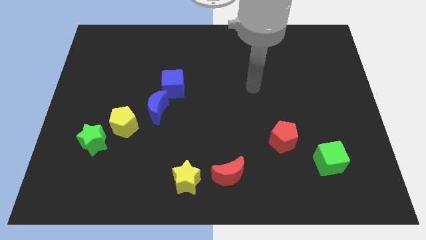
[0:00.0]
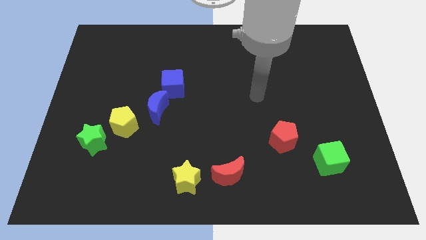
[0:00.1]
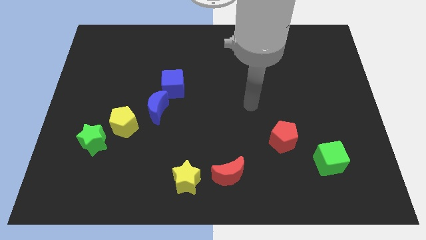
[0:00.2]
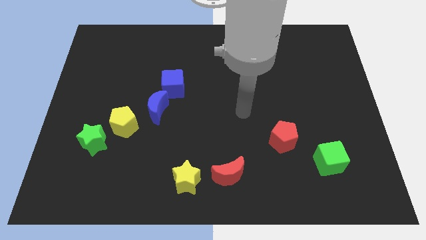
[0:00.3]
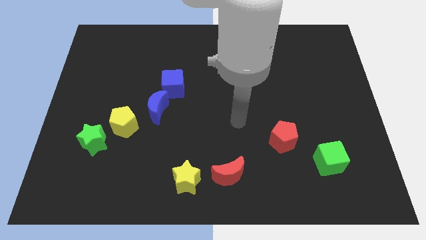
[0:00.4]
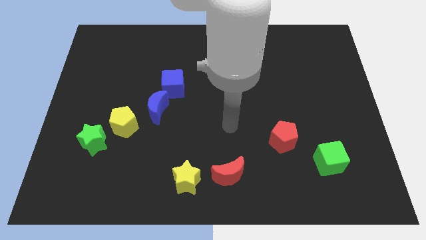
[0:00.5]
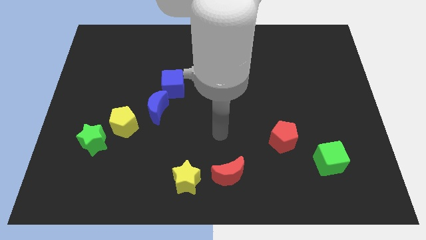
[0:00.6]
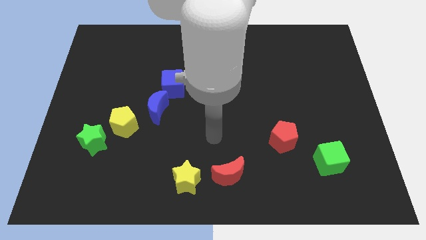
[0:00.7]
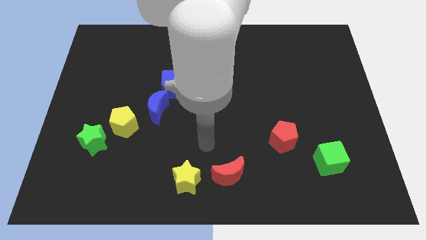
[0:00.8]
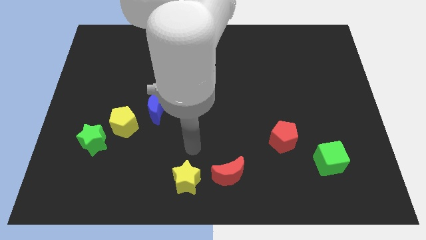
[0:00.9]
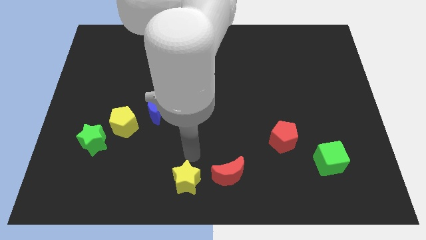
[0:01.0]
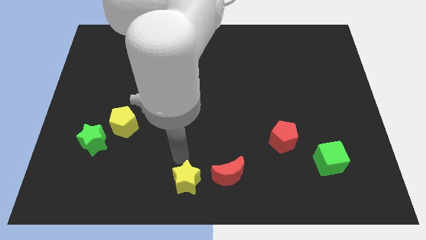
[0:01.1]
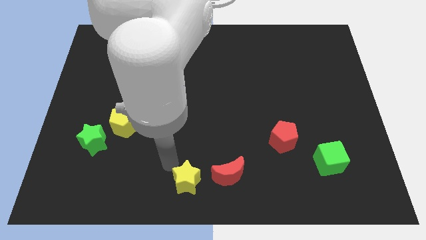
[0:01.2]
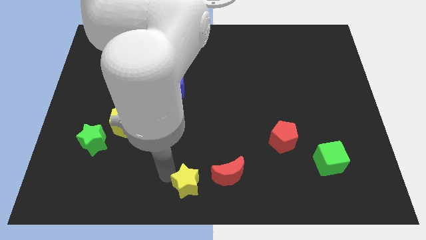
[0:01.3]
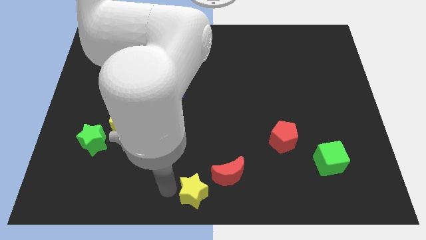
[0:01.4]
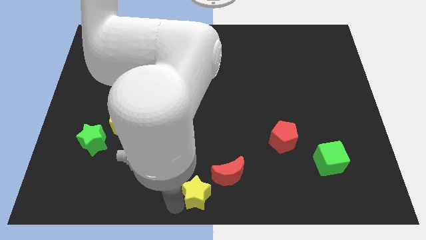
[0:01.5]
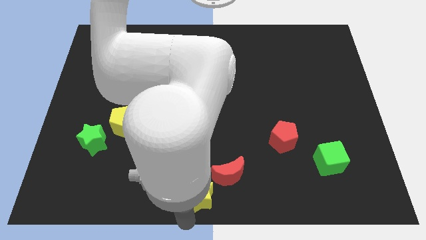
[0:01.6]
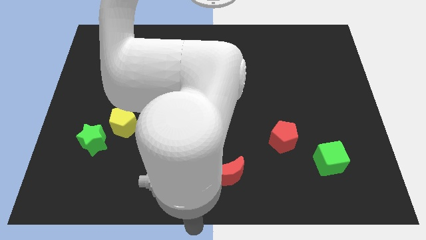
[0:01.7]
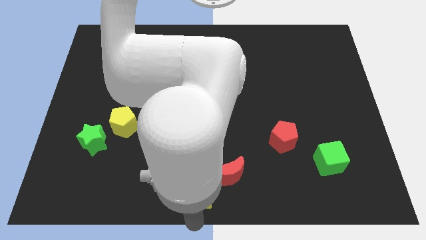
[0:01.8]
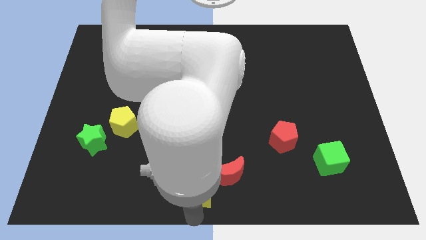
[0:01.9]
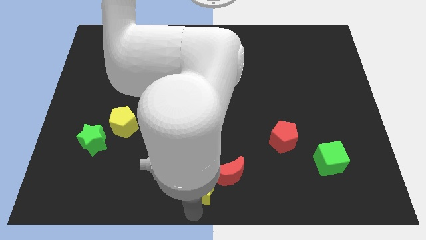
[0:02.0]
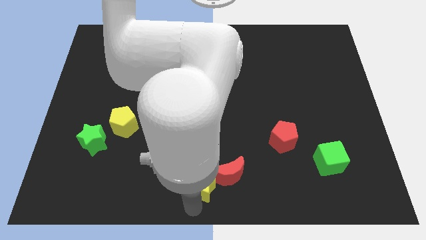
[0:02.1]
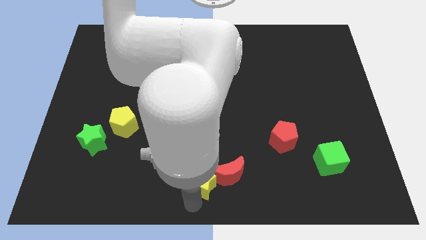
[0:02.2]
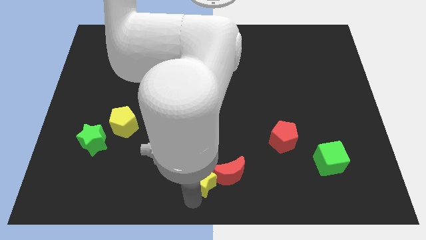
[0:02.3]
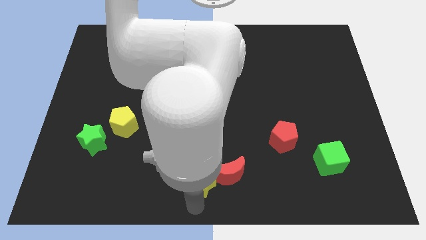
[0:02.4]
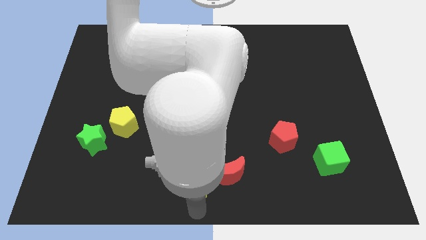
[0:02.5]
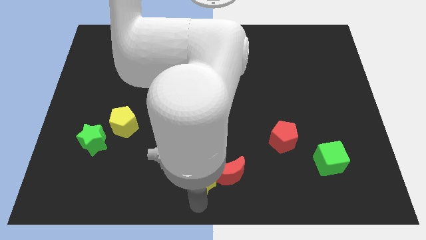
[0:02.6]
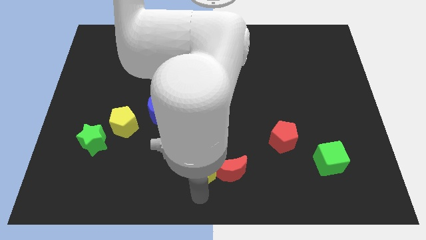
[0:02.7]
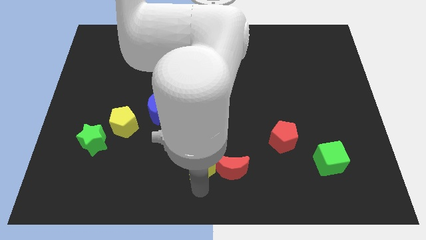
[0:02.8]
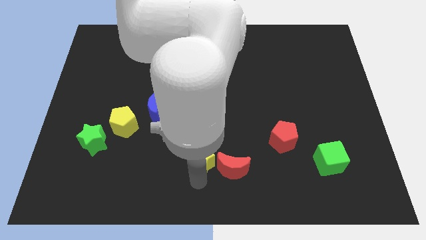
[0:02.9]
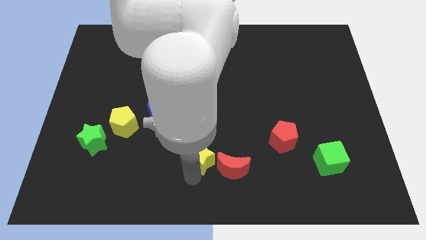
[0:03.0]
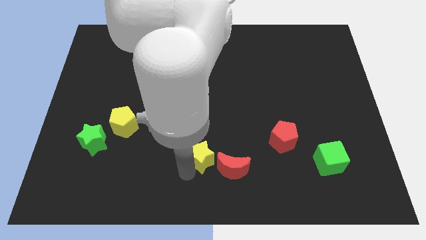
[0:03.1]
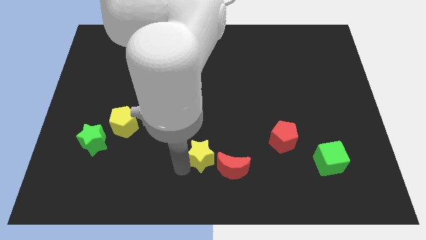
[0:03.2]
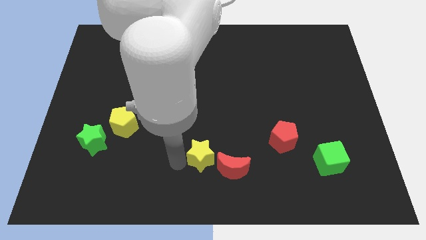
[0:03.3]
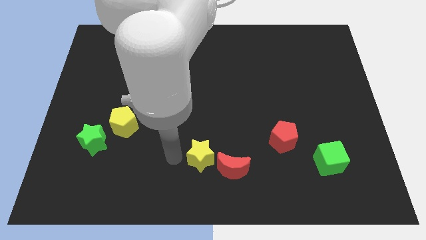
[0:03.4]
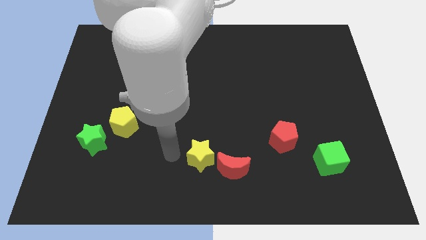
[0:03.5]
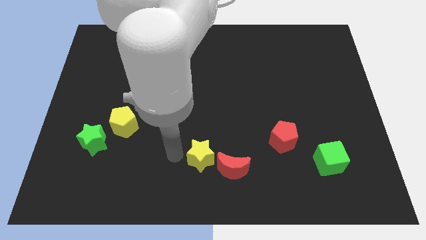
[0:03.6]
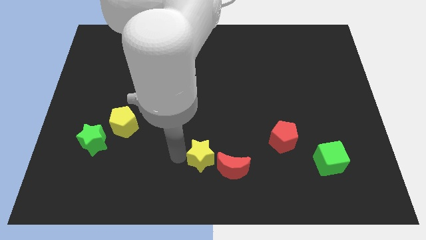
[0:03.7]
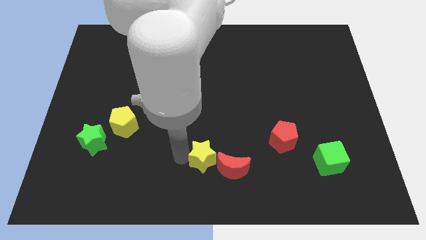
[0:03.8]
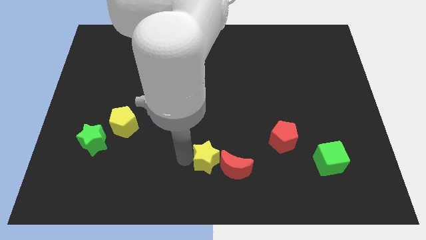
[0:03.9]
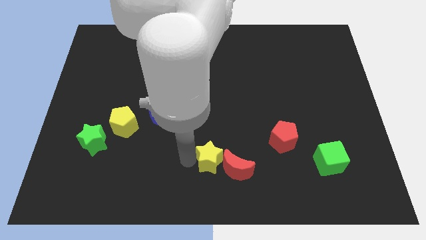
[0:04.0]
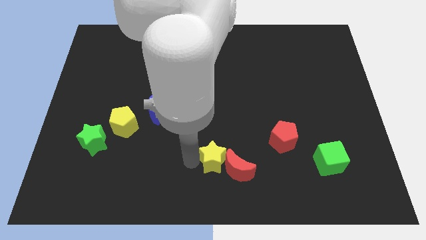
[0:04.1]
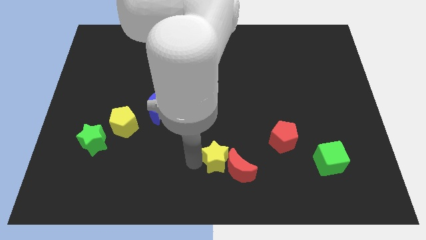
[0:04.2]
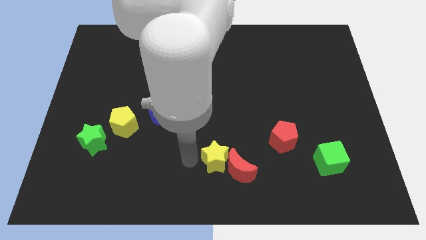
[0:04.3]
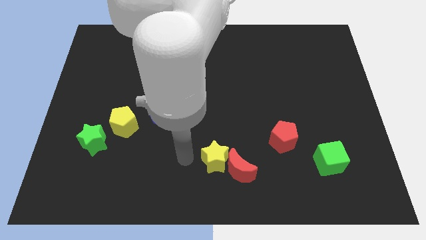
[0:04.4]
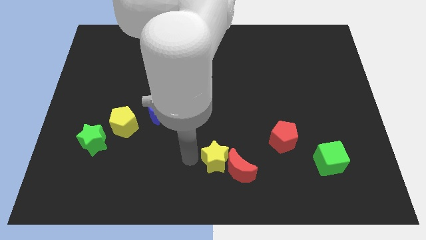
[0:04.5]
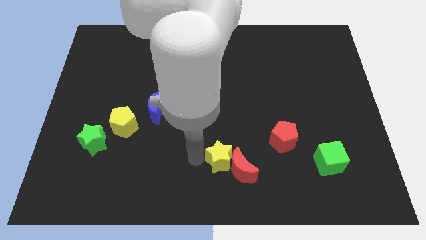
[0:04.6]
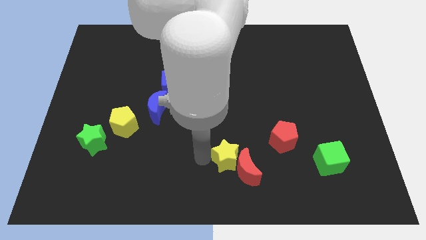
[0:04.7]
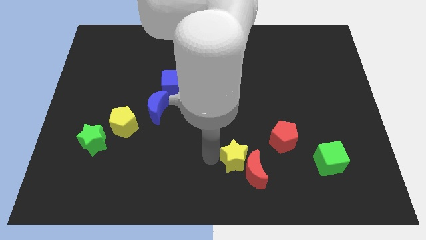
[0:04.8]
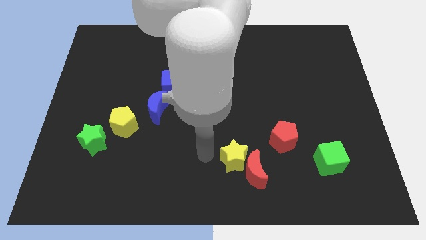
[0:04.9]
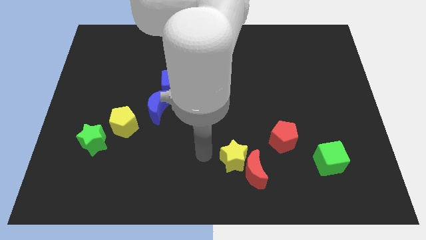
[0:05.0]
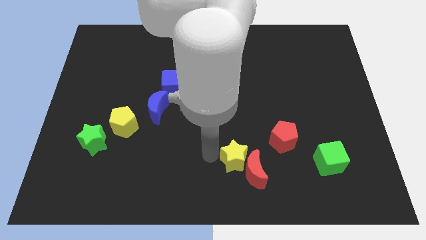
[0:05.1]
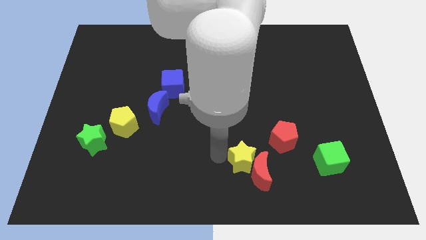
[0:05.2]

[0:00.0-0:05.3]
push the yellow star to the bottom left side of the red pentagon

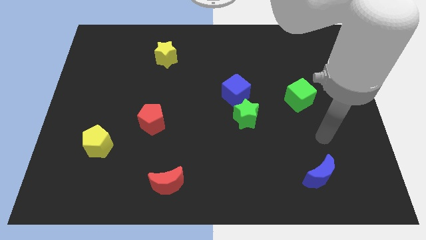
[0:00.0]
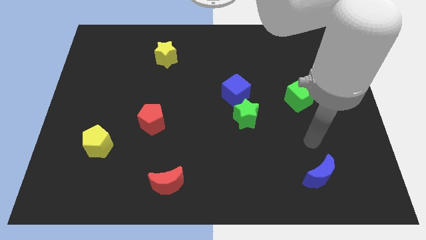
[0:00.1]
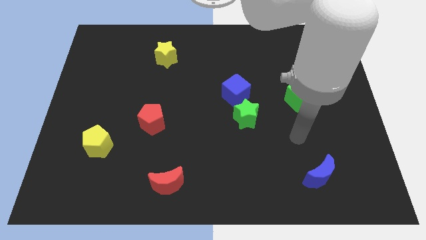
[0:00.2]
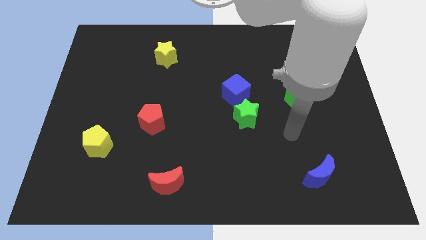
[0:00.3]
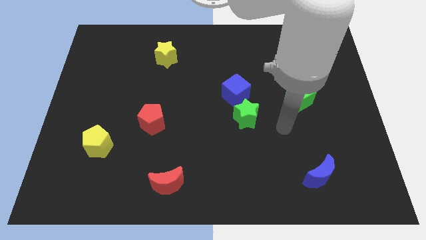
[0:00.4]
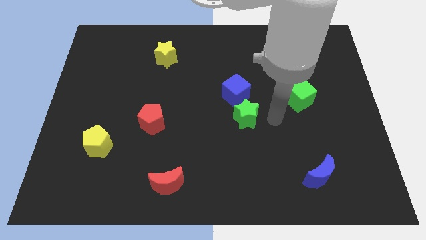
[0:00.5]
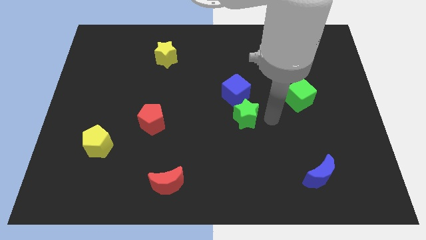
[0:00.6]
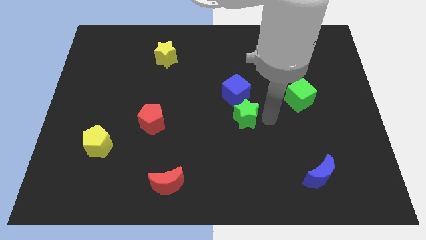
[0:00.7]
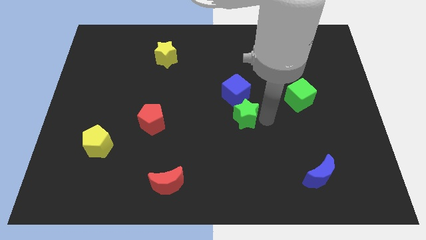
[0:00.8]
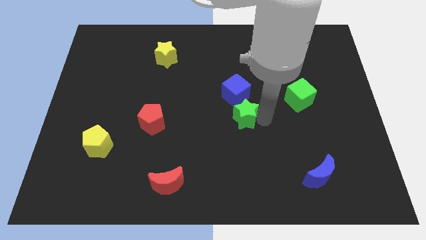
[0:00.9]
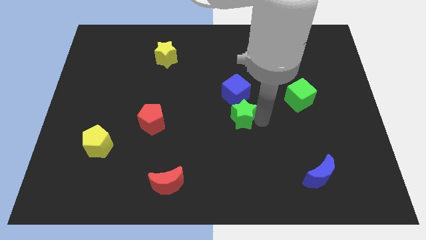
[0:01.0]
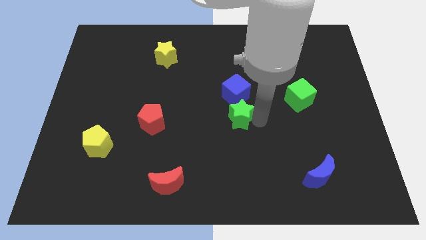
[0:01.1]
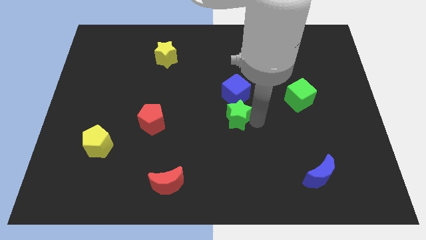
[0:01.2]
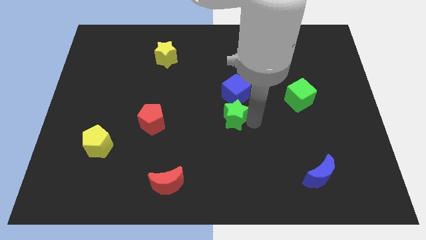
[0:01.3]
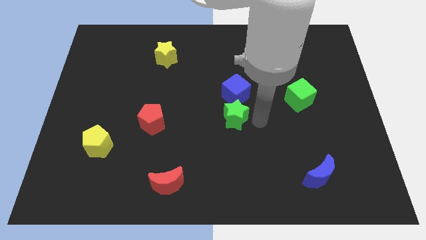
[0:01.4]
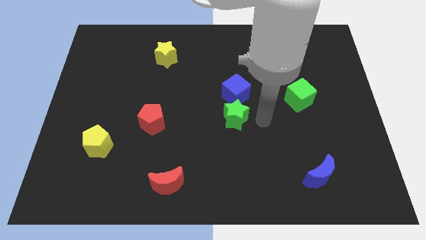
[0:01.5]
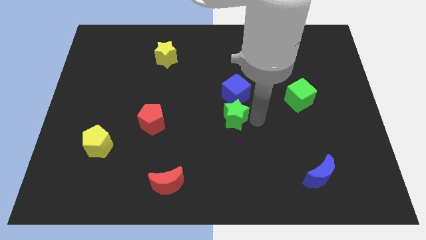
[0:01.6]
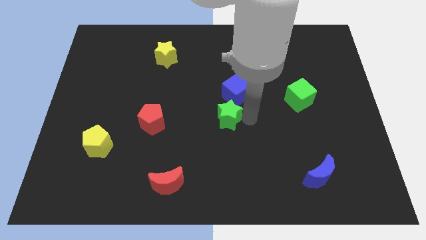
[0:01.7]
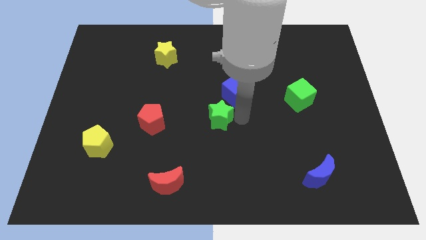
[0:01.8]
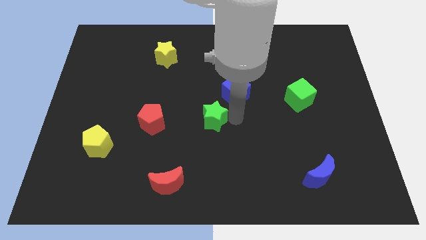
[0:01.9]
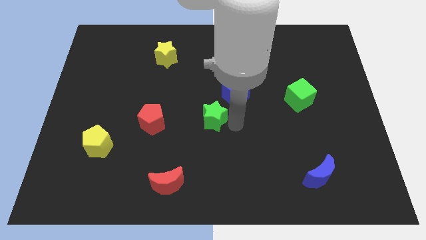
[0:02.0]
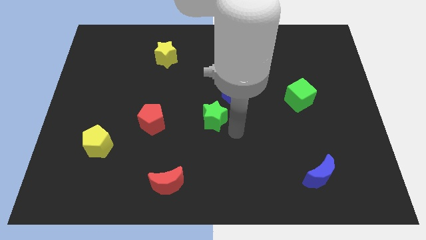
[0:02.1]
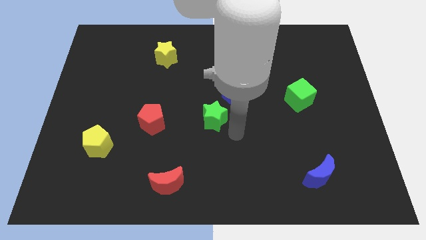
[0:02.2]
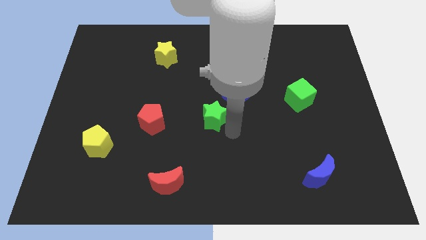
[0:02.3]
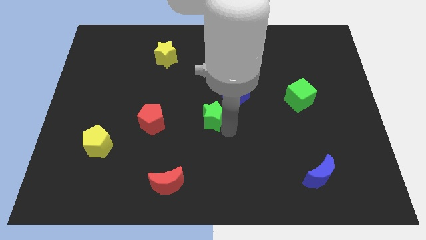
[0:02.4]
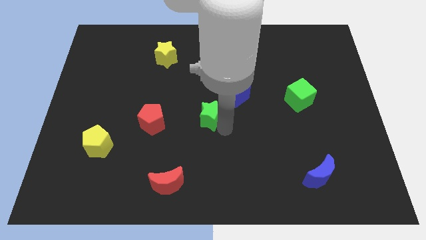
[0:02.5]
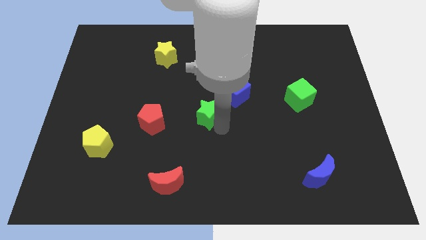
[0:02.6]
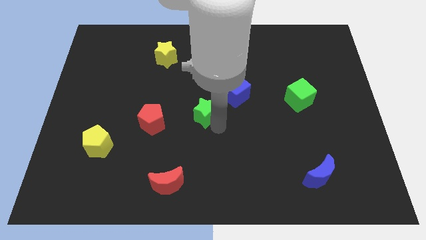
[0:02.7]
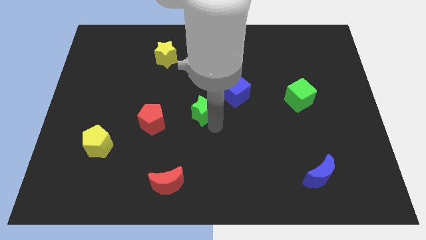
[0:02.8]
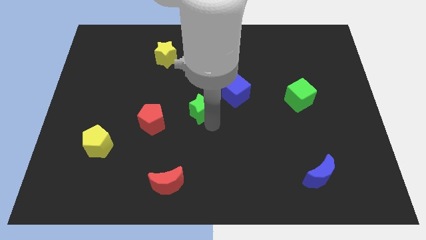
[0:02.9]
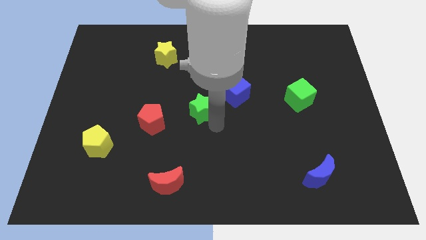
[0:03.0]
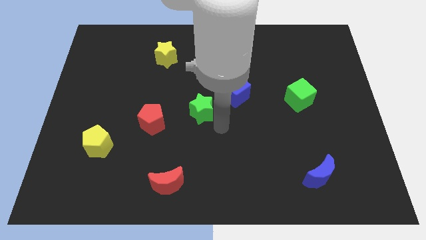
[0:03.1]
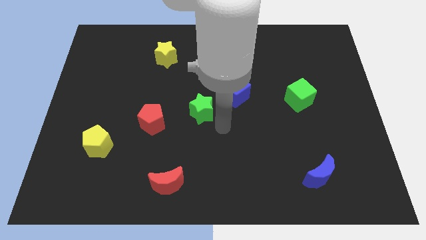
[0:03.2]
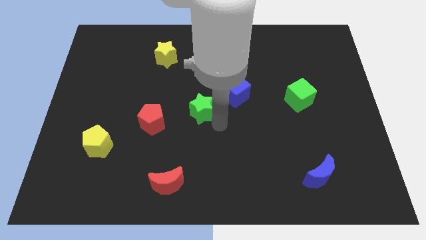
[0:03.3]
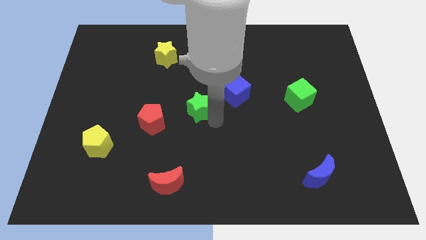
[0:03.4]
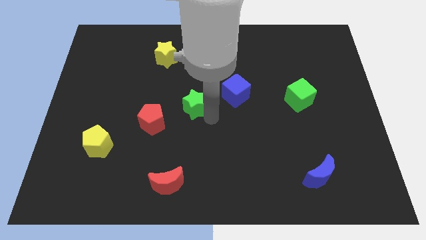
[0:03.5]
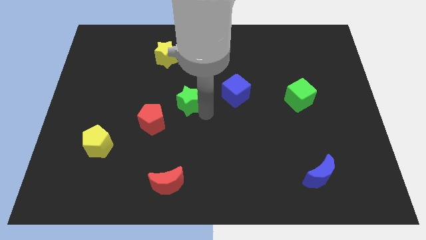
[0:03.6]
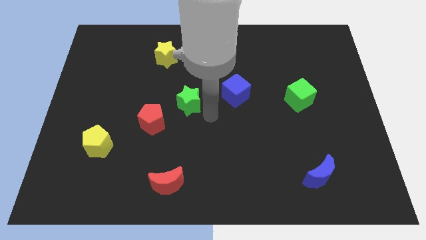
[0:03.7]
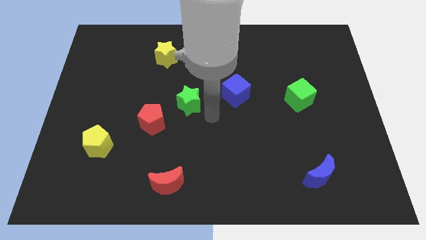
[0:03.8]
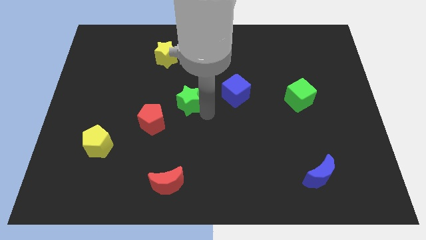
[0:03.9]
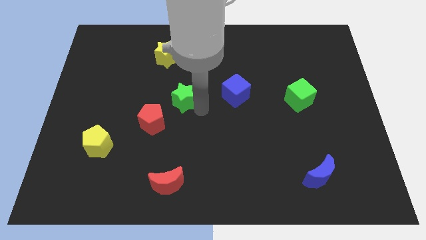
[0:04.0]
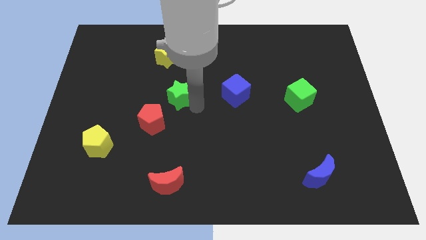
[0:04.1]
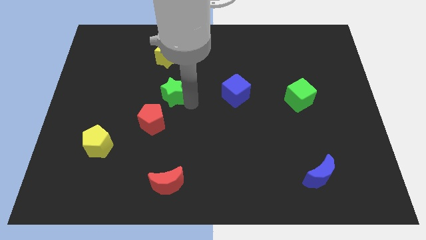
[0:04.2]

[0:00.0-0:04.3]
slide the green star below the yellow star
